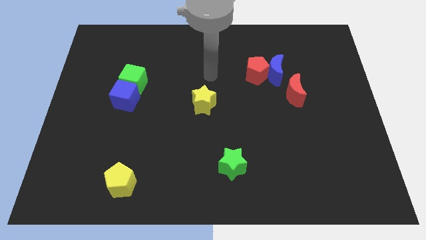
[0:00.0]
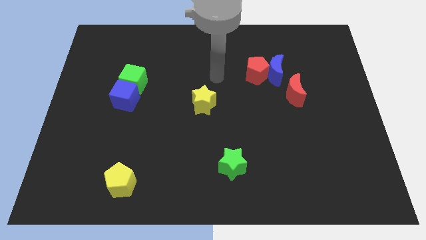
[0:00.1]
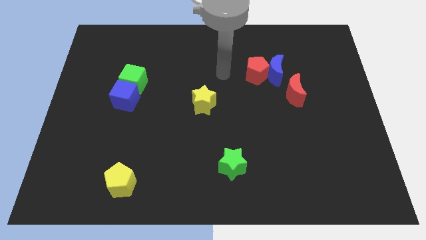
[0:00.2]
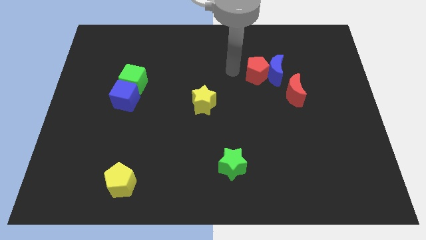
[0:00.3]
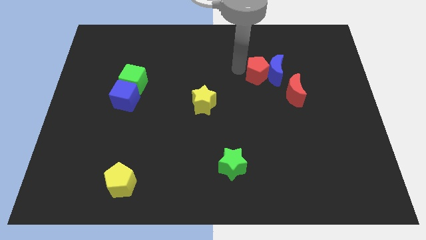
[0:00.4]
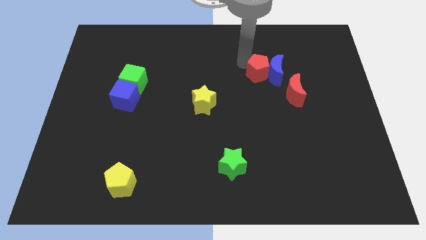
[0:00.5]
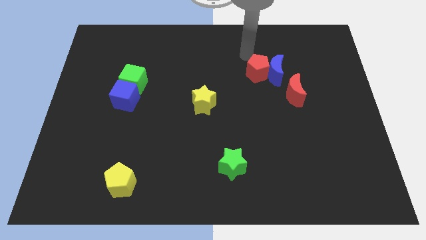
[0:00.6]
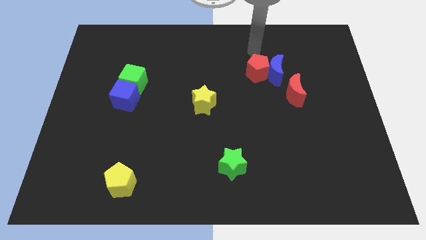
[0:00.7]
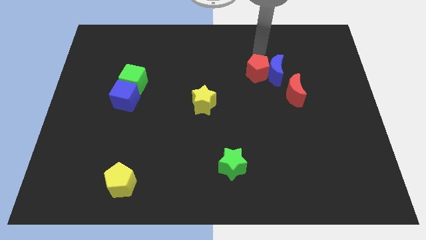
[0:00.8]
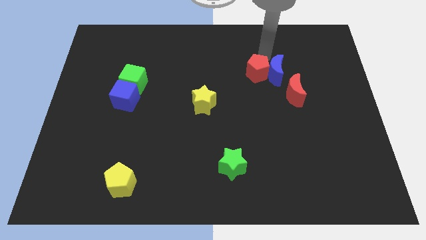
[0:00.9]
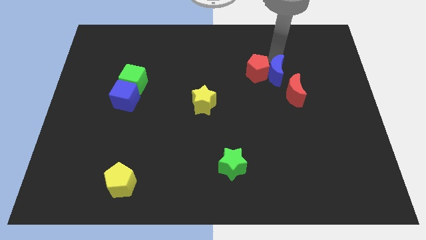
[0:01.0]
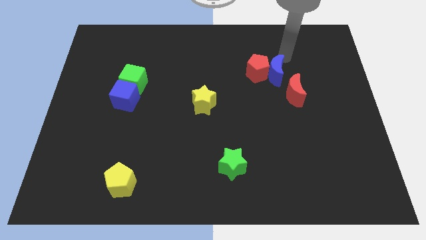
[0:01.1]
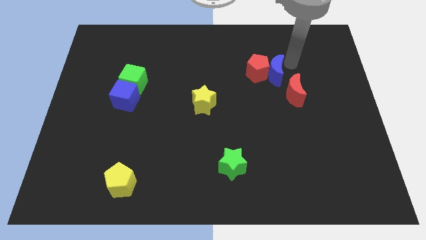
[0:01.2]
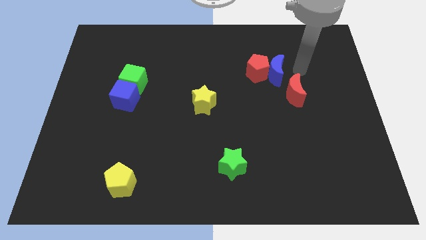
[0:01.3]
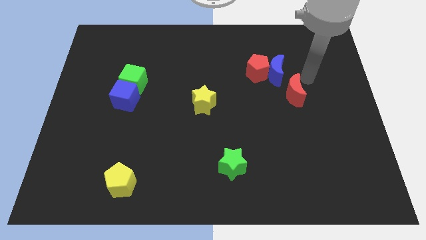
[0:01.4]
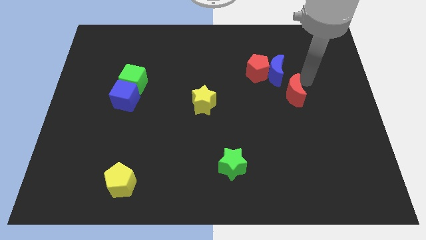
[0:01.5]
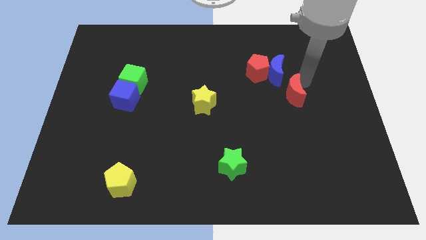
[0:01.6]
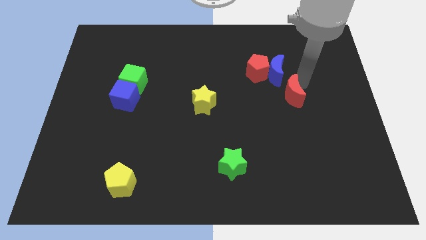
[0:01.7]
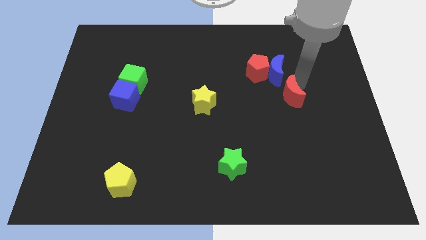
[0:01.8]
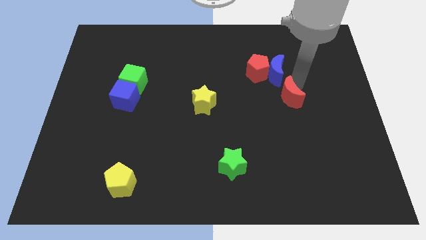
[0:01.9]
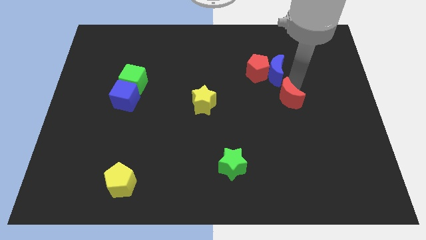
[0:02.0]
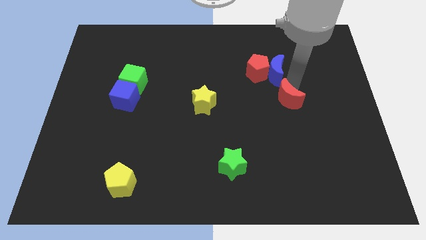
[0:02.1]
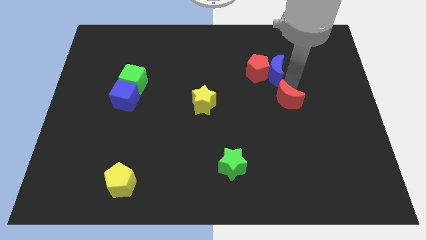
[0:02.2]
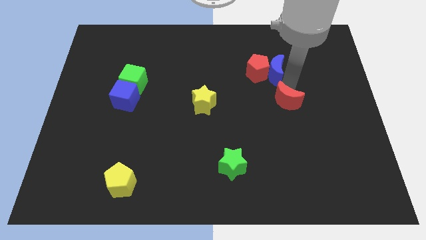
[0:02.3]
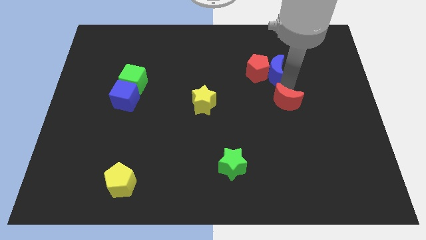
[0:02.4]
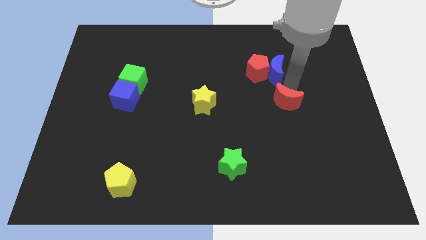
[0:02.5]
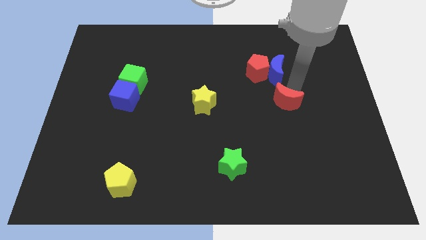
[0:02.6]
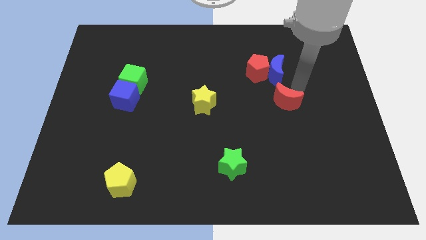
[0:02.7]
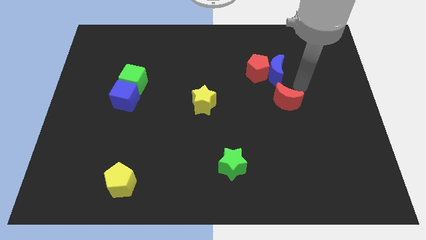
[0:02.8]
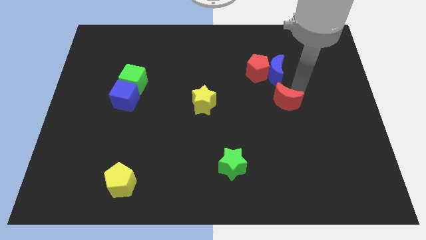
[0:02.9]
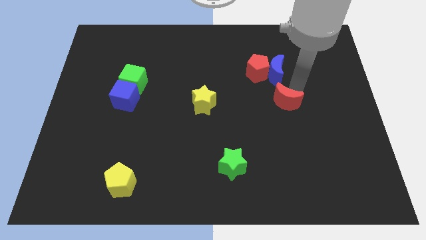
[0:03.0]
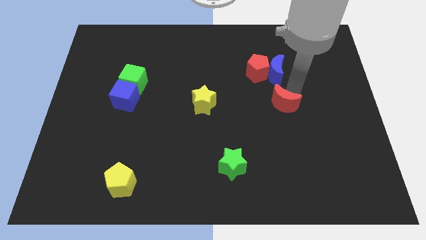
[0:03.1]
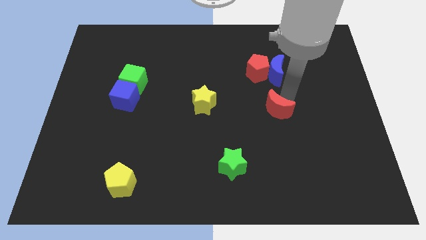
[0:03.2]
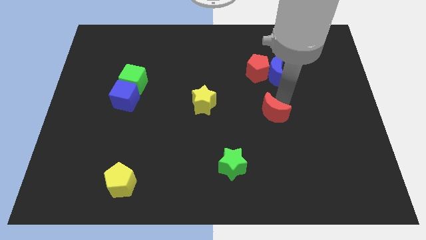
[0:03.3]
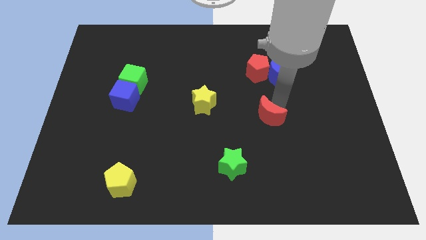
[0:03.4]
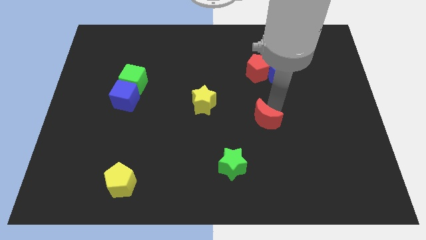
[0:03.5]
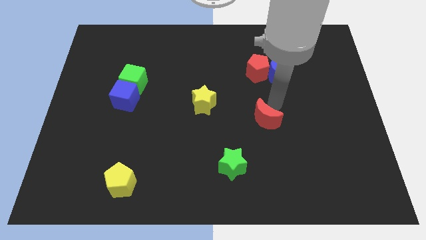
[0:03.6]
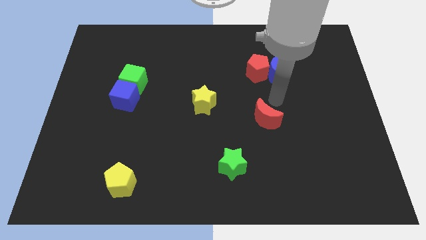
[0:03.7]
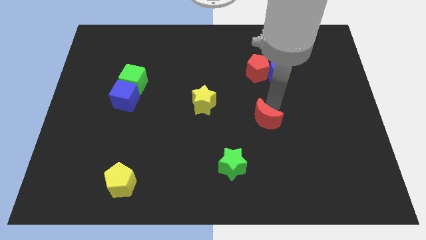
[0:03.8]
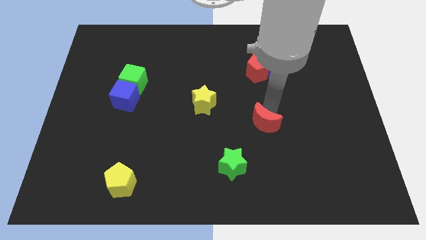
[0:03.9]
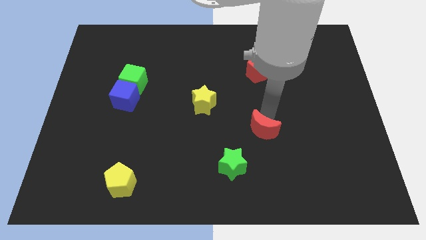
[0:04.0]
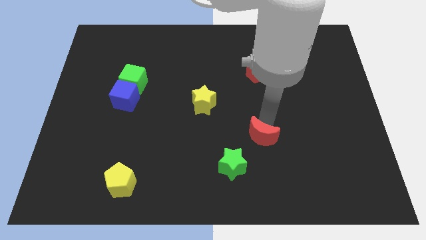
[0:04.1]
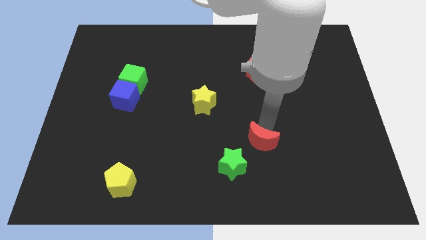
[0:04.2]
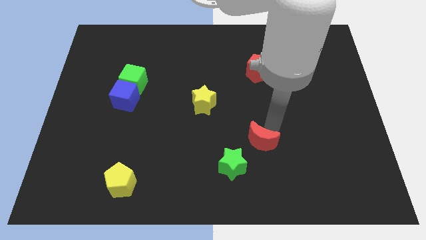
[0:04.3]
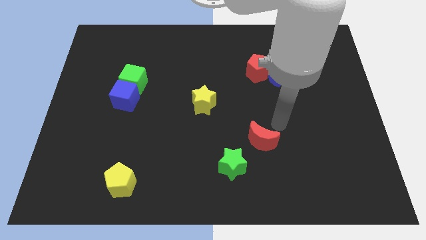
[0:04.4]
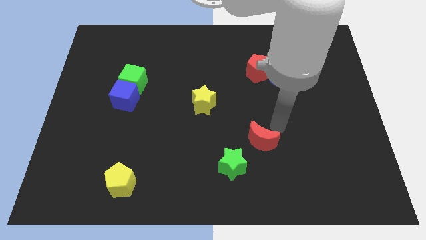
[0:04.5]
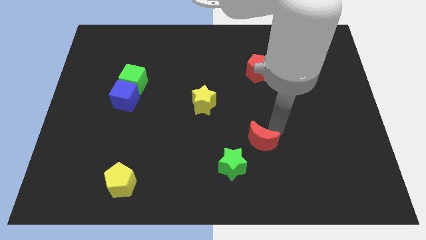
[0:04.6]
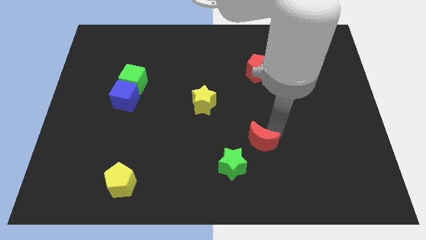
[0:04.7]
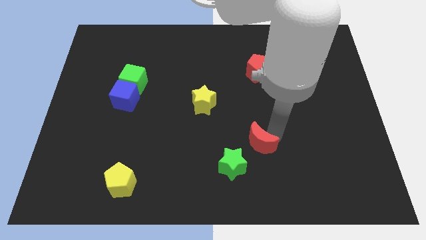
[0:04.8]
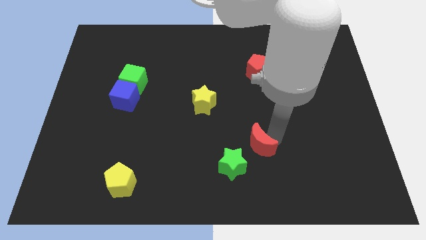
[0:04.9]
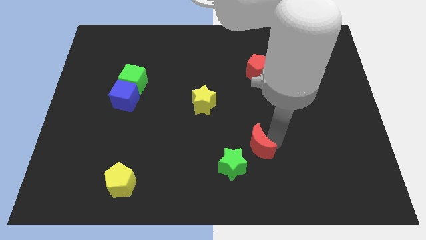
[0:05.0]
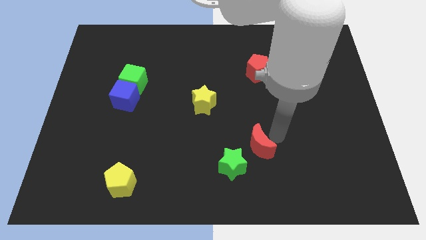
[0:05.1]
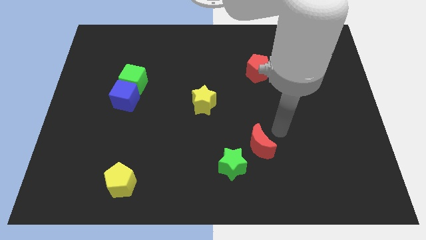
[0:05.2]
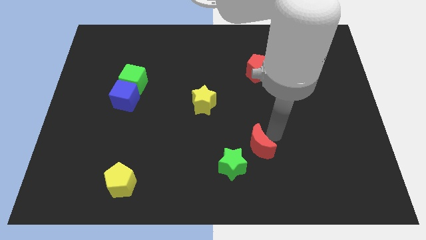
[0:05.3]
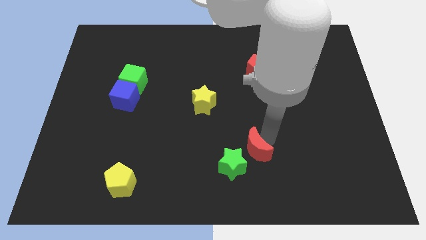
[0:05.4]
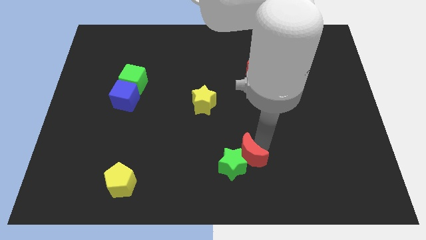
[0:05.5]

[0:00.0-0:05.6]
put the red moon close to the green star

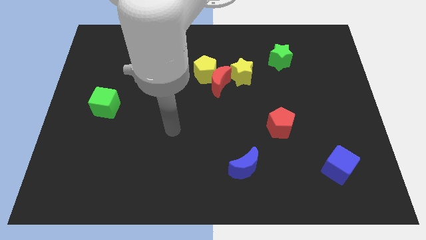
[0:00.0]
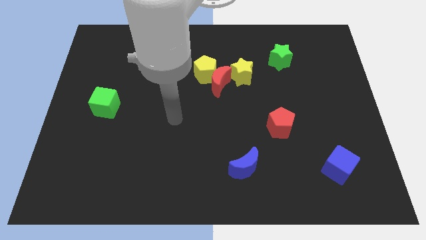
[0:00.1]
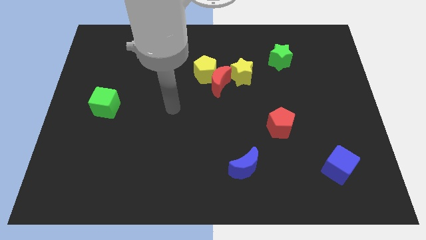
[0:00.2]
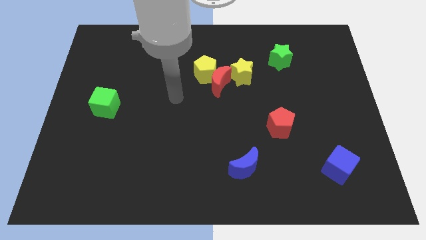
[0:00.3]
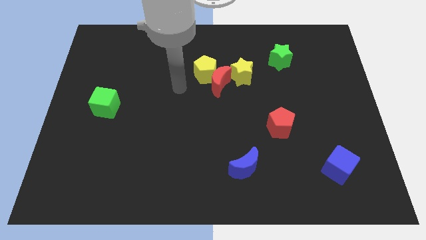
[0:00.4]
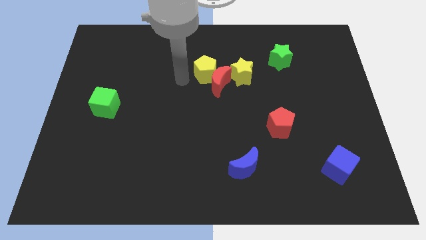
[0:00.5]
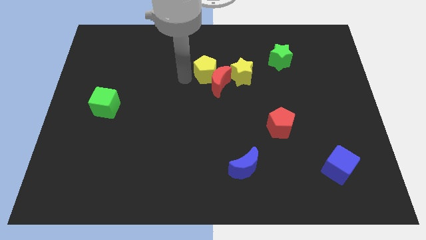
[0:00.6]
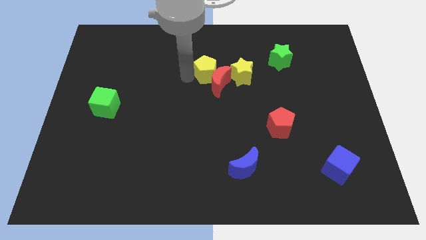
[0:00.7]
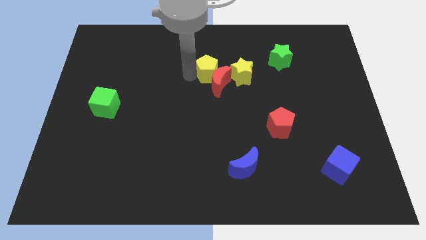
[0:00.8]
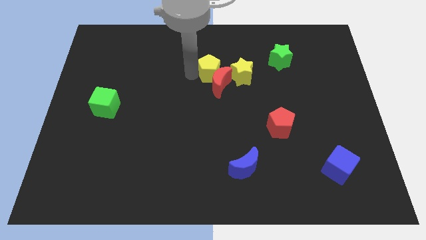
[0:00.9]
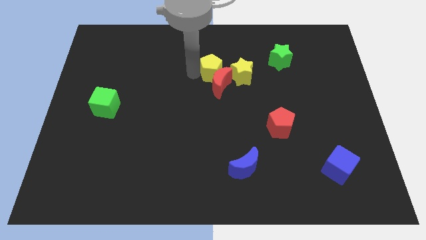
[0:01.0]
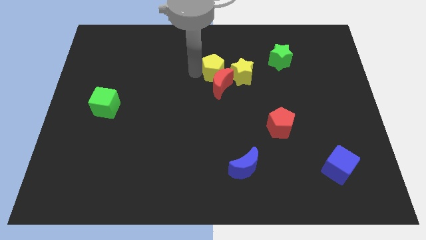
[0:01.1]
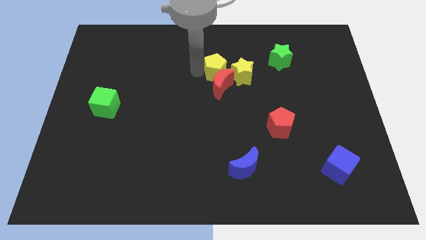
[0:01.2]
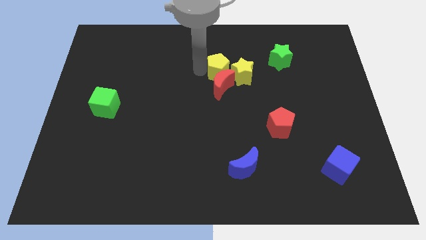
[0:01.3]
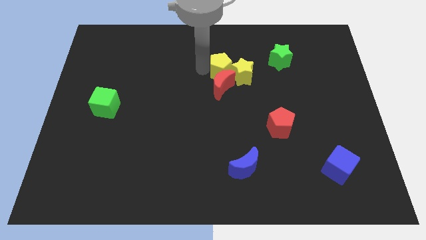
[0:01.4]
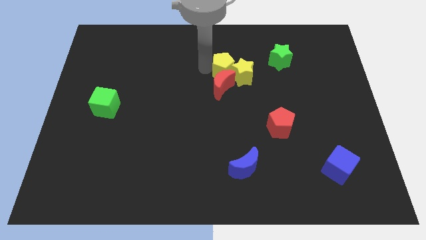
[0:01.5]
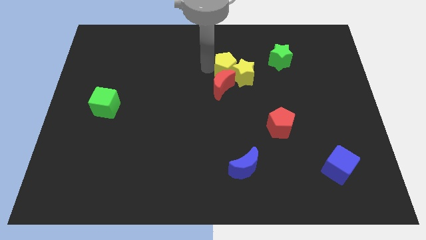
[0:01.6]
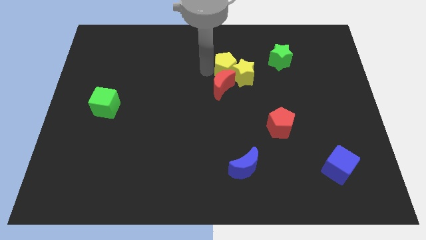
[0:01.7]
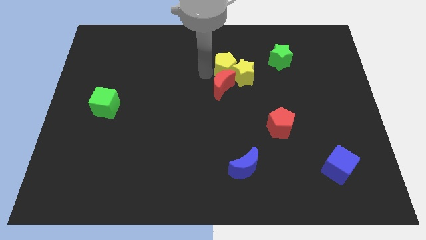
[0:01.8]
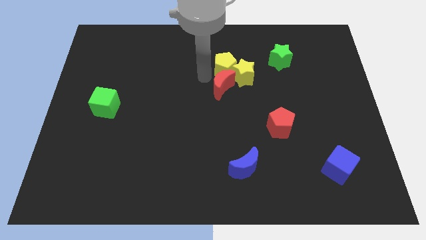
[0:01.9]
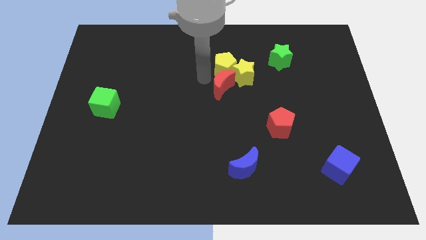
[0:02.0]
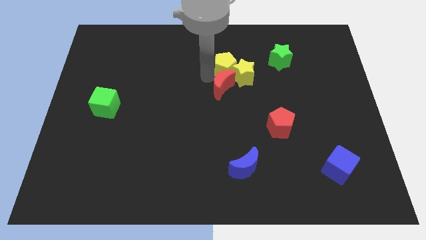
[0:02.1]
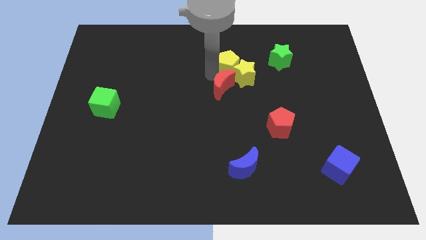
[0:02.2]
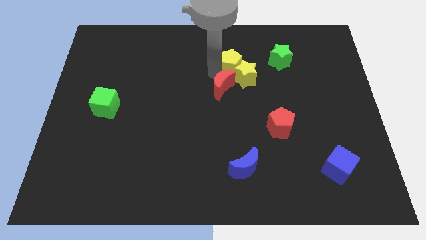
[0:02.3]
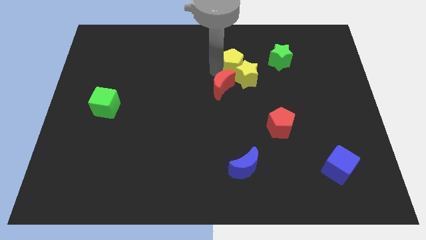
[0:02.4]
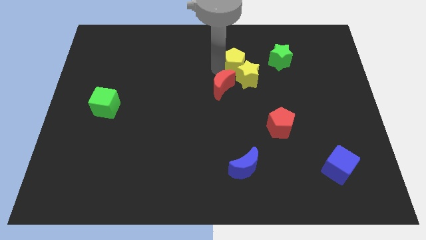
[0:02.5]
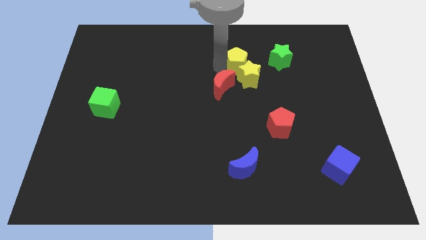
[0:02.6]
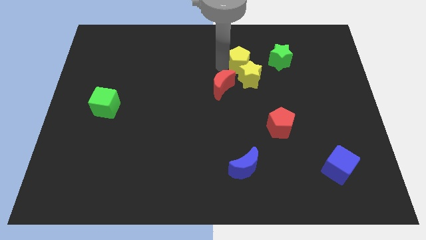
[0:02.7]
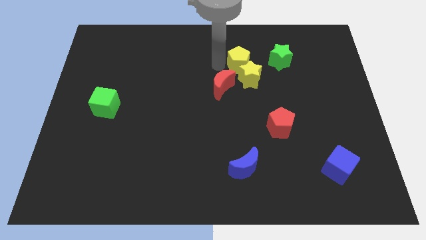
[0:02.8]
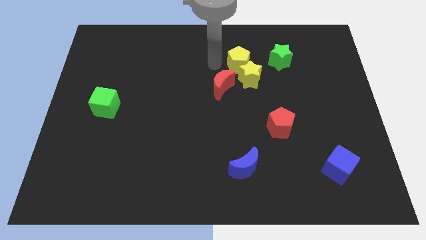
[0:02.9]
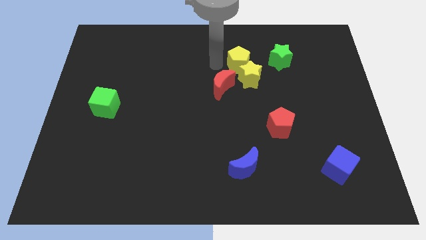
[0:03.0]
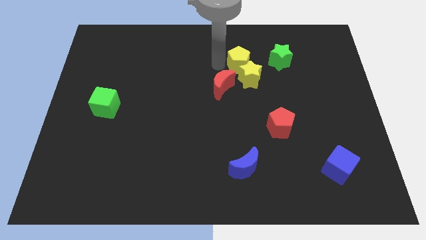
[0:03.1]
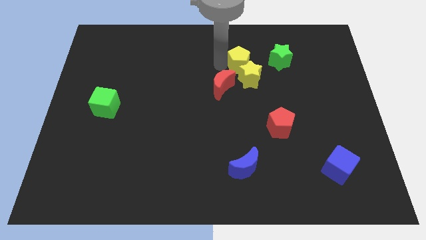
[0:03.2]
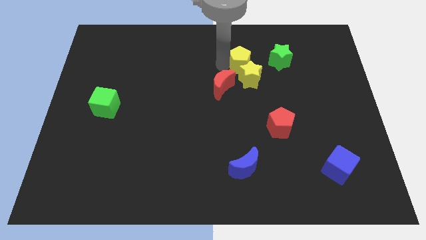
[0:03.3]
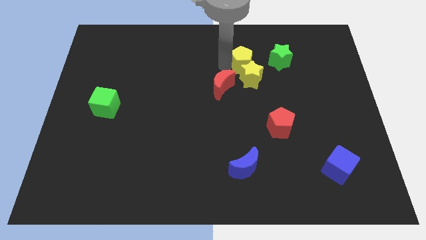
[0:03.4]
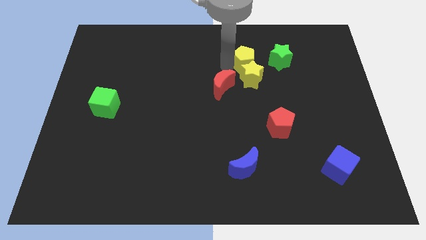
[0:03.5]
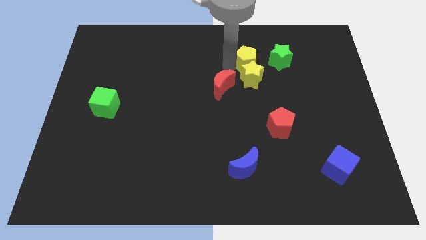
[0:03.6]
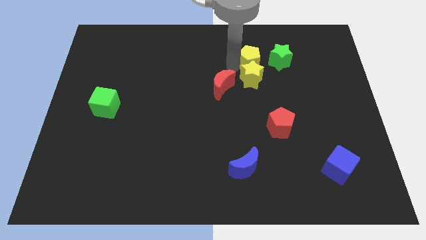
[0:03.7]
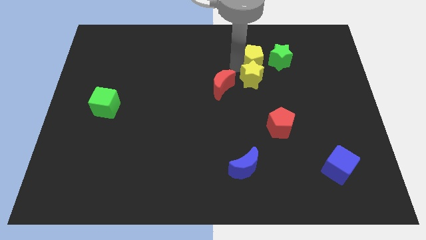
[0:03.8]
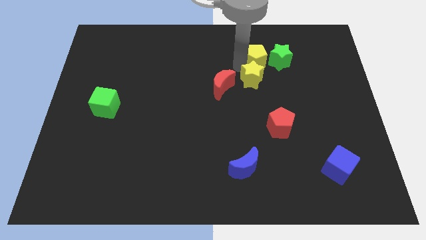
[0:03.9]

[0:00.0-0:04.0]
move the yellow pentagon to the green star
